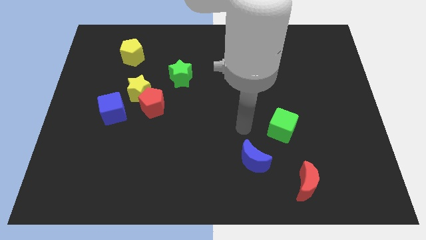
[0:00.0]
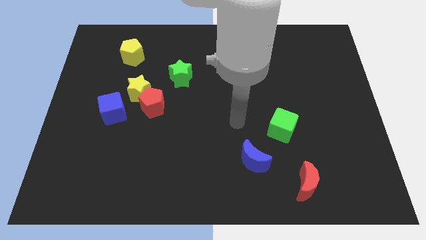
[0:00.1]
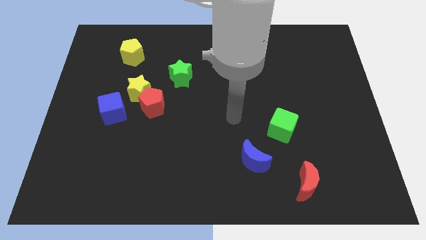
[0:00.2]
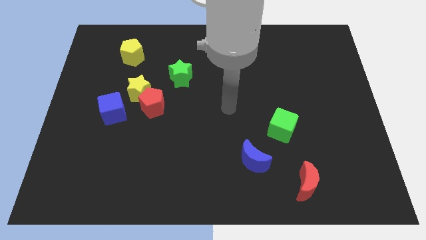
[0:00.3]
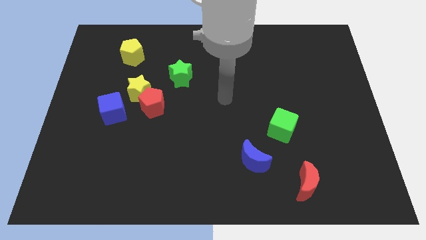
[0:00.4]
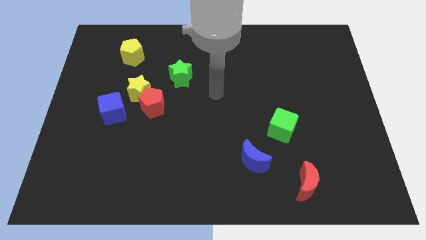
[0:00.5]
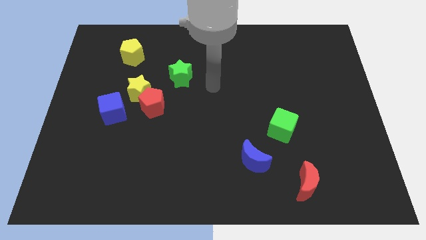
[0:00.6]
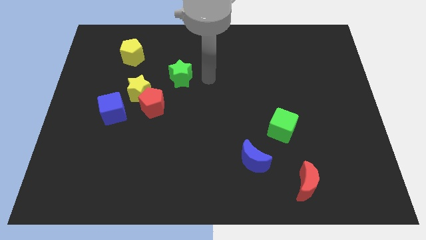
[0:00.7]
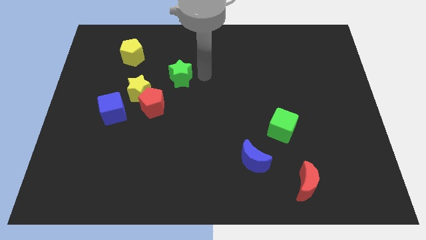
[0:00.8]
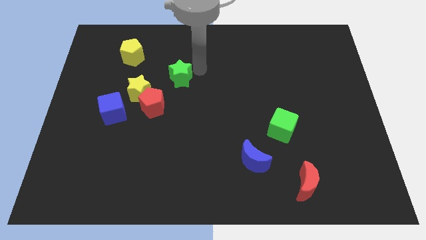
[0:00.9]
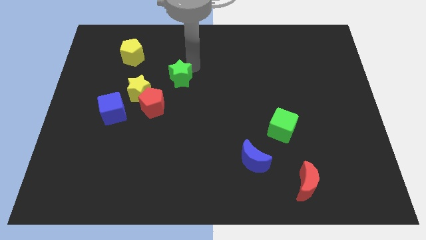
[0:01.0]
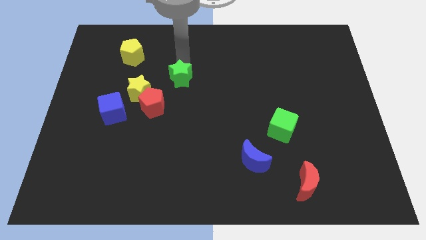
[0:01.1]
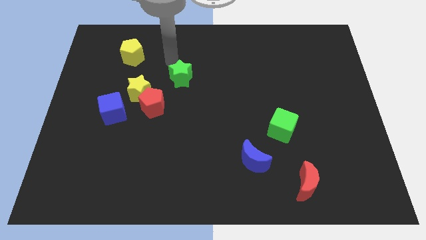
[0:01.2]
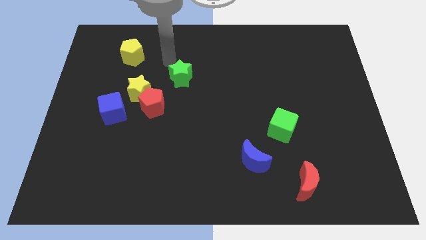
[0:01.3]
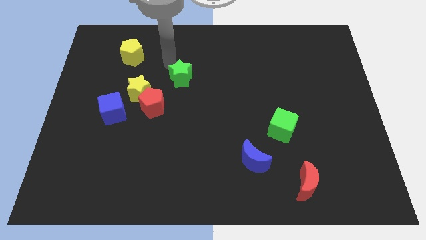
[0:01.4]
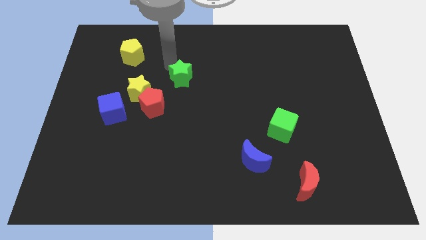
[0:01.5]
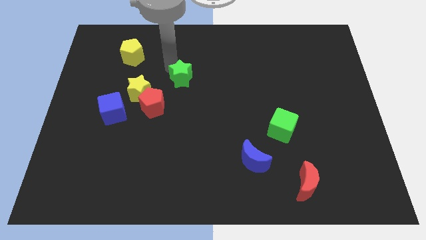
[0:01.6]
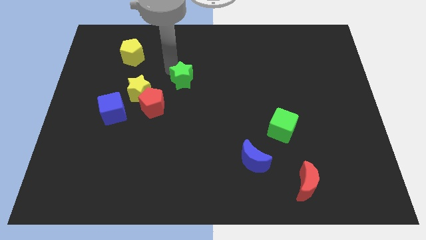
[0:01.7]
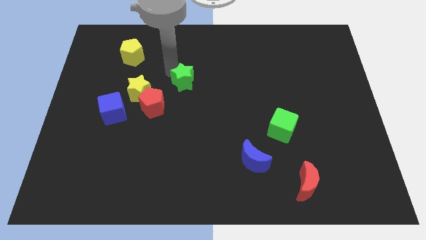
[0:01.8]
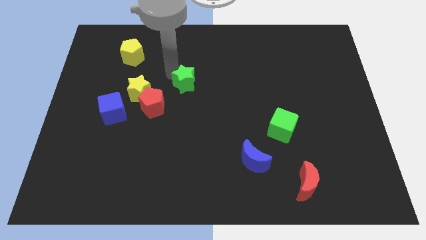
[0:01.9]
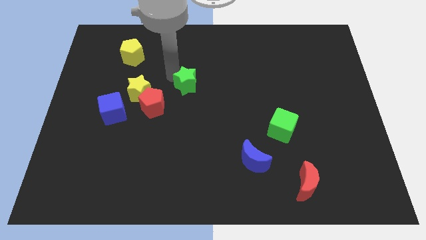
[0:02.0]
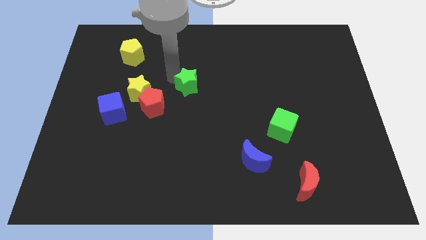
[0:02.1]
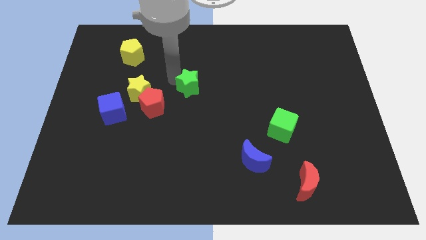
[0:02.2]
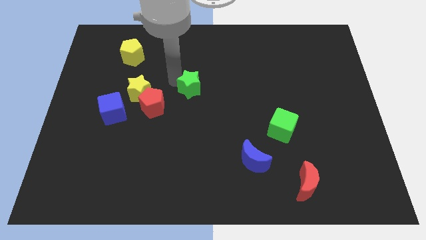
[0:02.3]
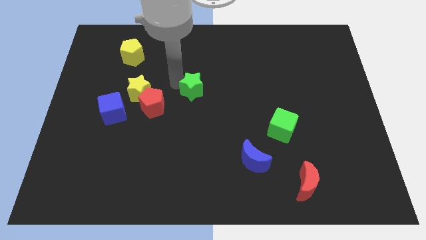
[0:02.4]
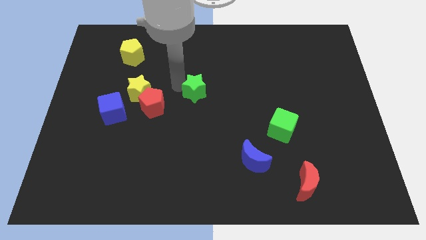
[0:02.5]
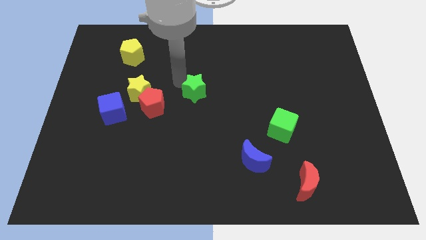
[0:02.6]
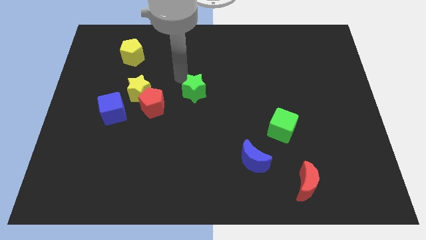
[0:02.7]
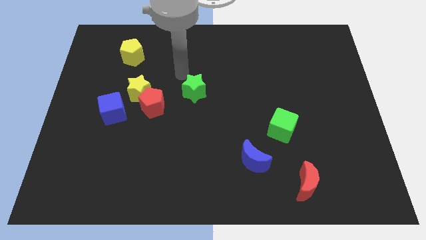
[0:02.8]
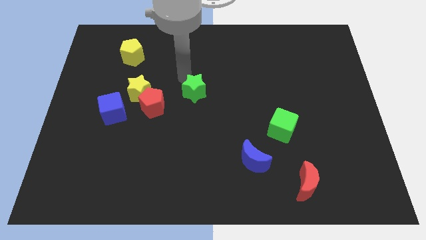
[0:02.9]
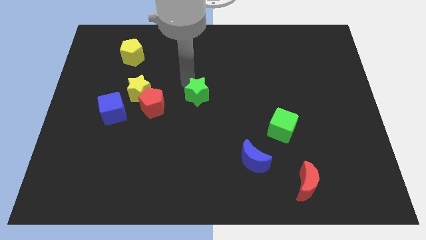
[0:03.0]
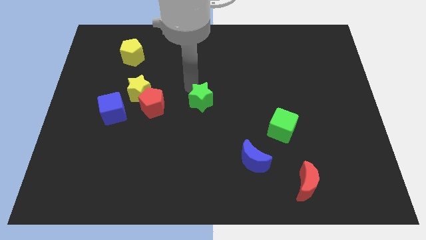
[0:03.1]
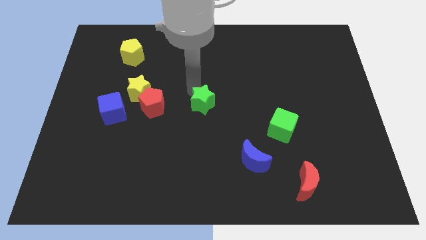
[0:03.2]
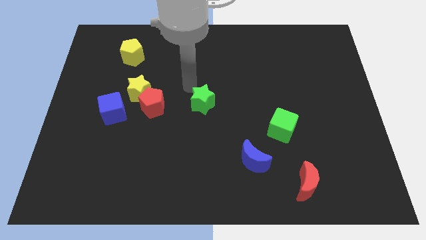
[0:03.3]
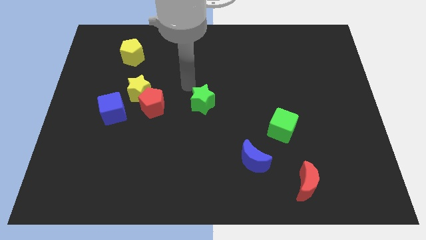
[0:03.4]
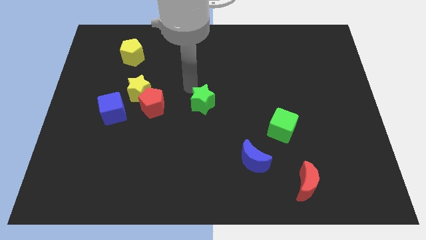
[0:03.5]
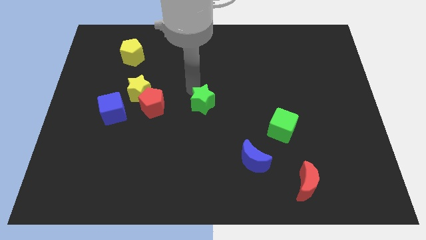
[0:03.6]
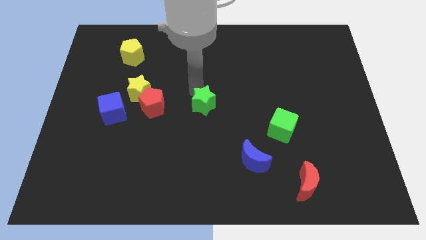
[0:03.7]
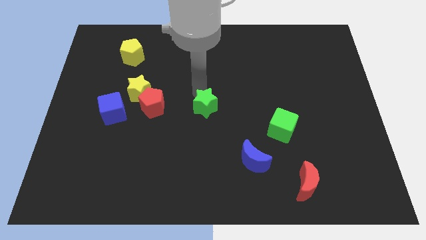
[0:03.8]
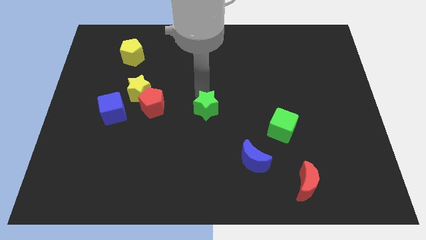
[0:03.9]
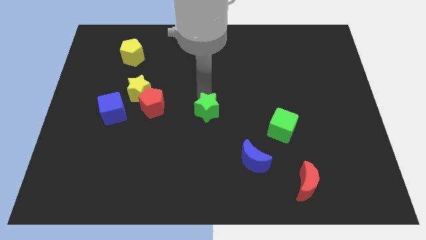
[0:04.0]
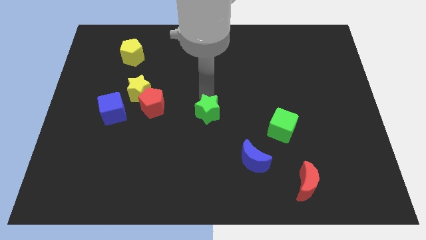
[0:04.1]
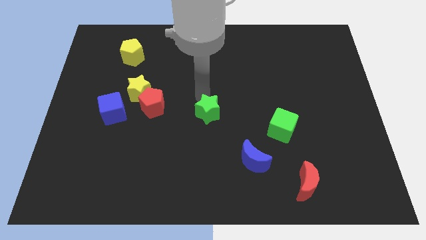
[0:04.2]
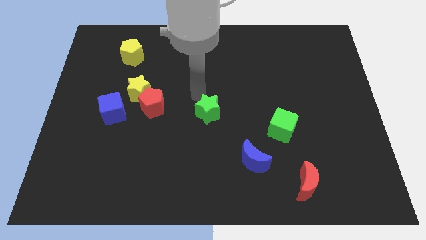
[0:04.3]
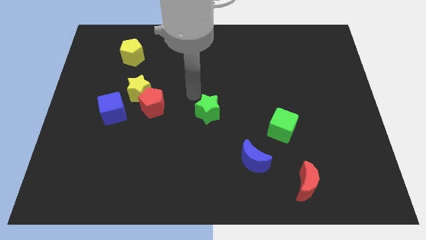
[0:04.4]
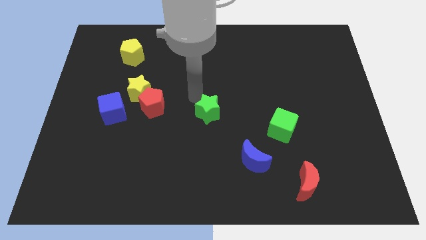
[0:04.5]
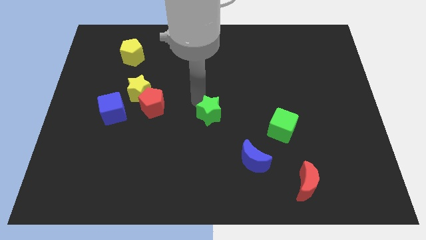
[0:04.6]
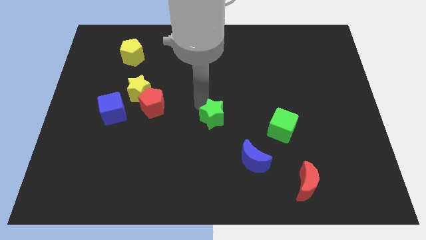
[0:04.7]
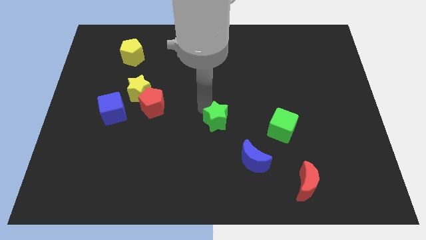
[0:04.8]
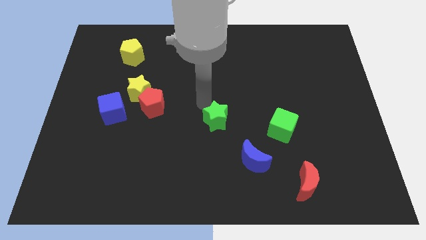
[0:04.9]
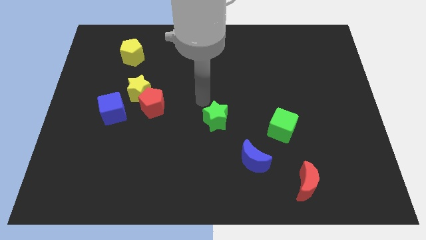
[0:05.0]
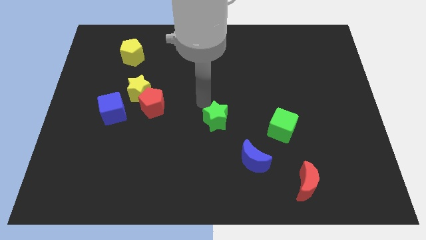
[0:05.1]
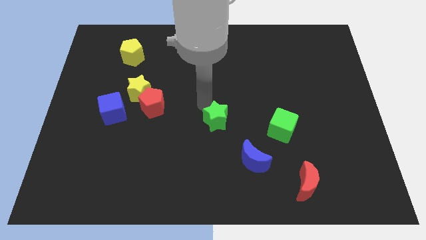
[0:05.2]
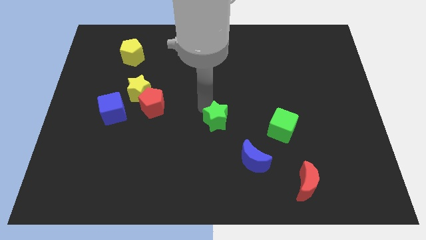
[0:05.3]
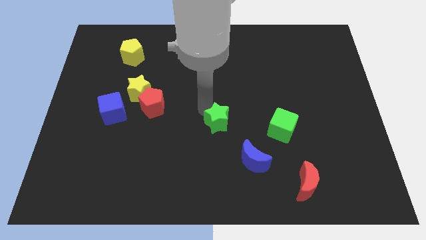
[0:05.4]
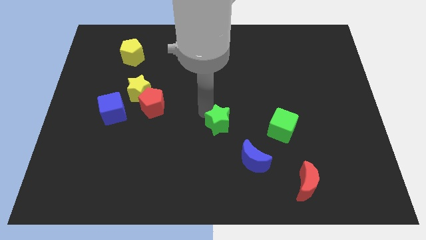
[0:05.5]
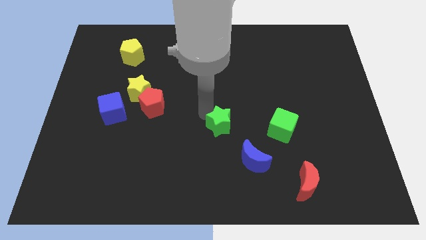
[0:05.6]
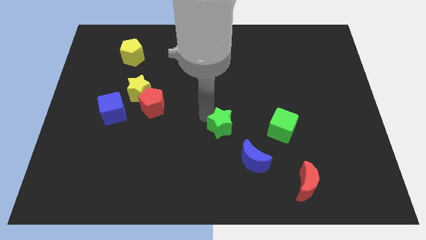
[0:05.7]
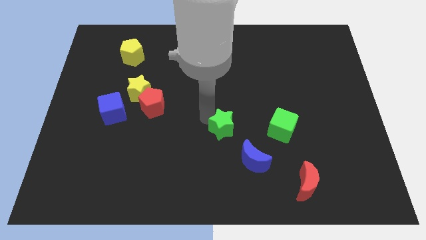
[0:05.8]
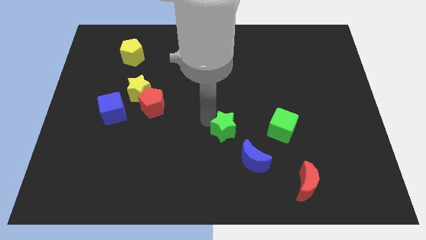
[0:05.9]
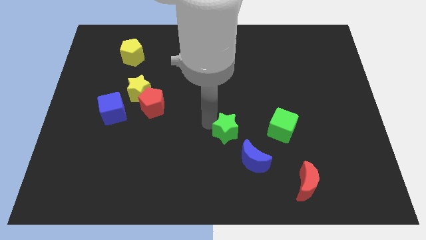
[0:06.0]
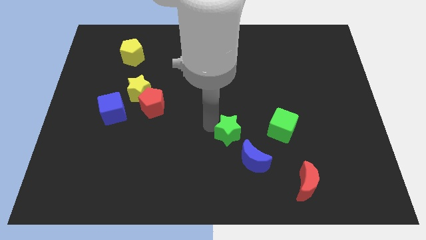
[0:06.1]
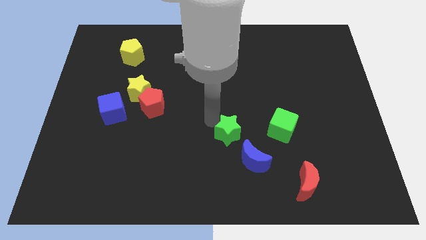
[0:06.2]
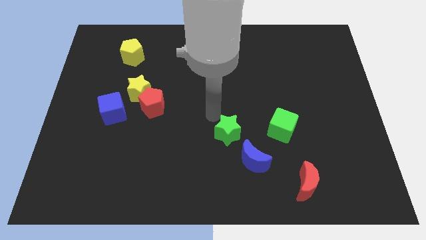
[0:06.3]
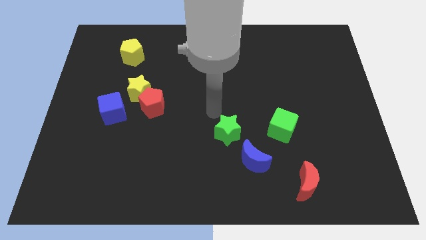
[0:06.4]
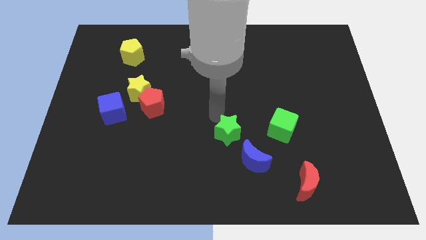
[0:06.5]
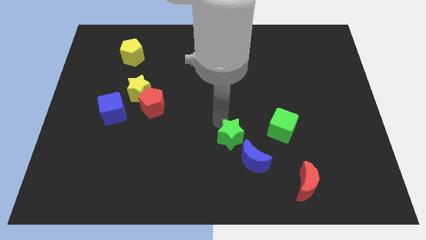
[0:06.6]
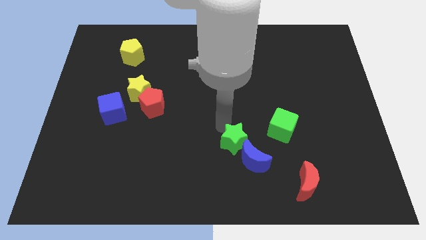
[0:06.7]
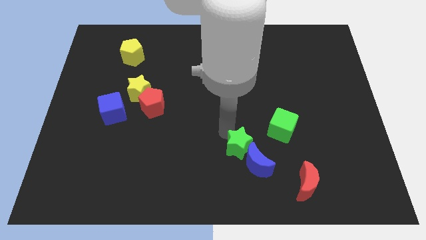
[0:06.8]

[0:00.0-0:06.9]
move the green star close to the blue moon
